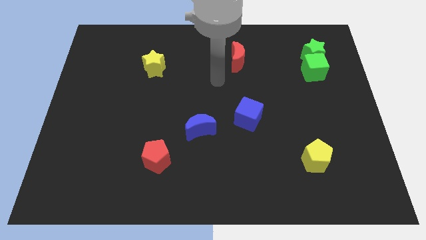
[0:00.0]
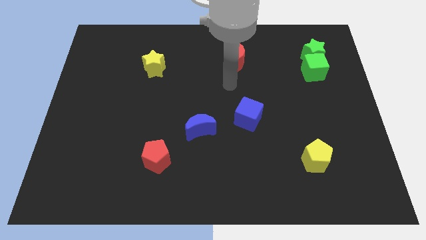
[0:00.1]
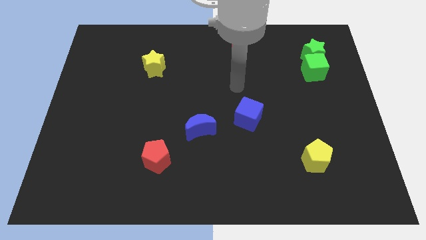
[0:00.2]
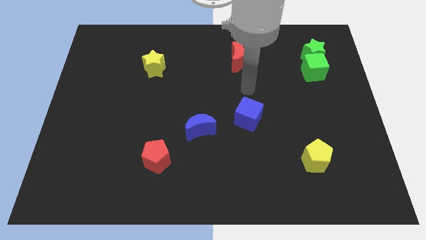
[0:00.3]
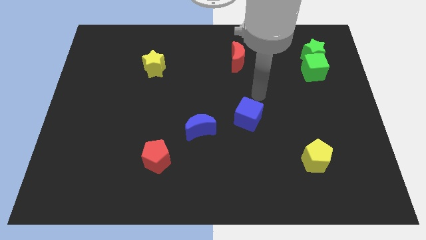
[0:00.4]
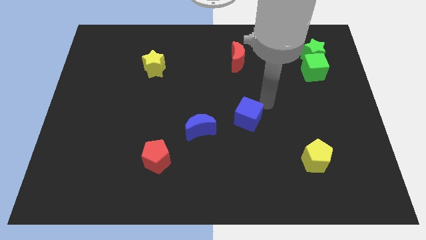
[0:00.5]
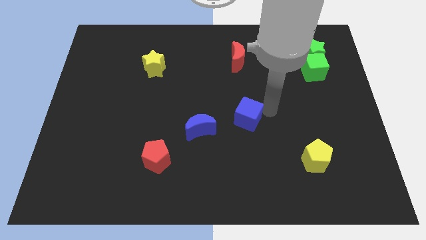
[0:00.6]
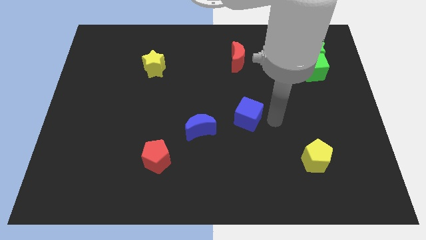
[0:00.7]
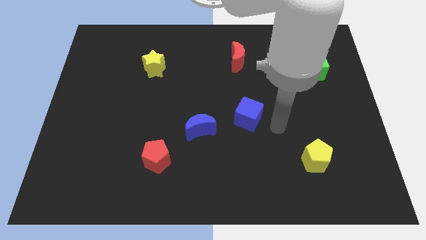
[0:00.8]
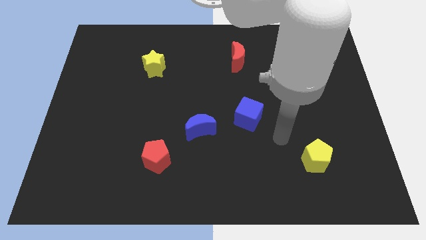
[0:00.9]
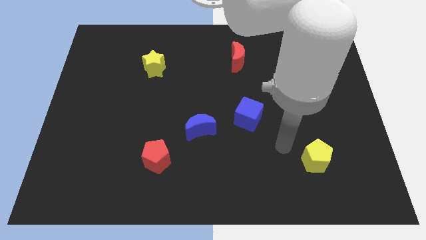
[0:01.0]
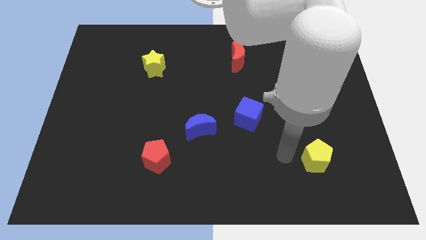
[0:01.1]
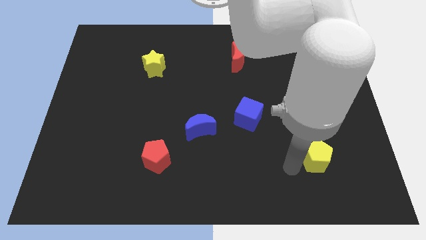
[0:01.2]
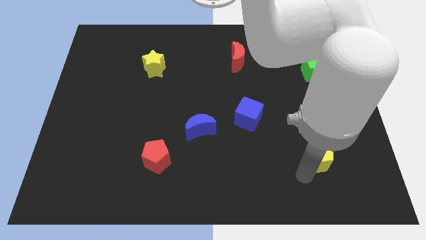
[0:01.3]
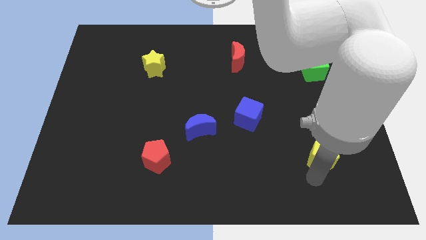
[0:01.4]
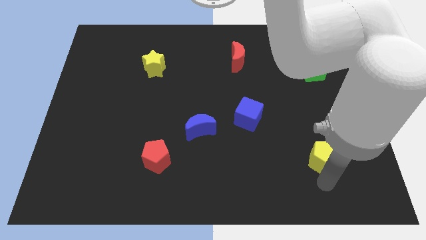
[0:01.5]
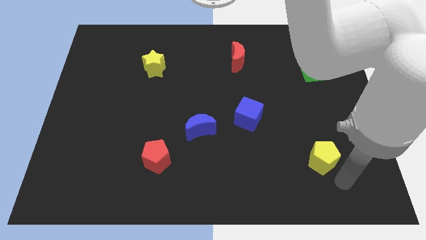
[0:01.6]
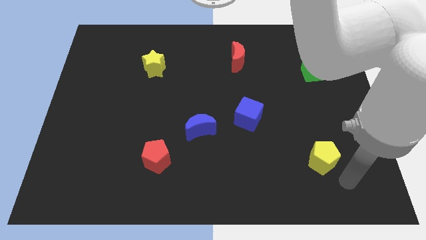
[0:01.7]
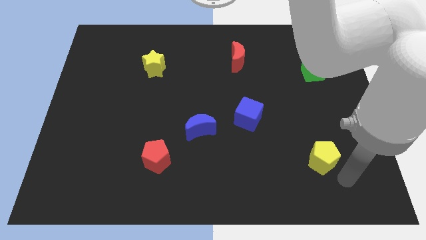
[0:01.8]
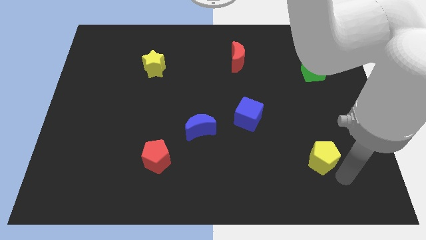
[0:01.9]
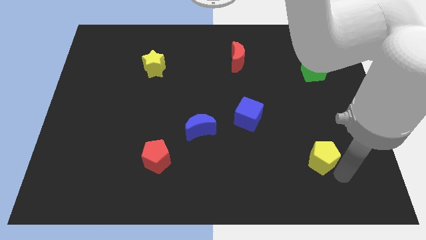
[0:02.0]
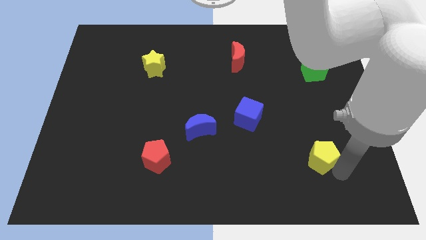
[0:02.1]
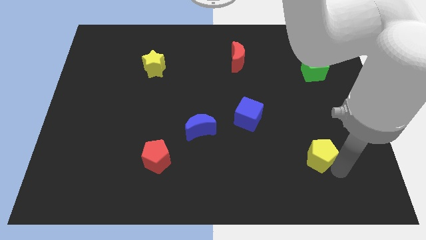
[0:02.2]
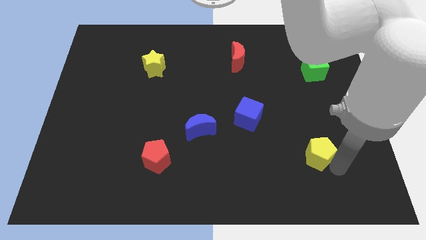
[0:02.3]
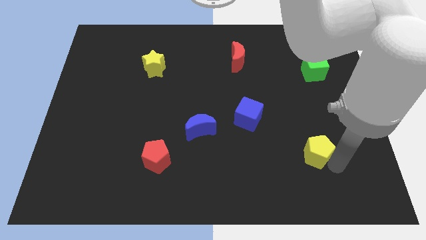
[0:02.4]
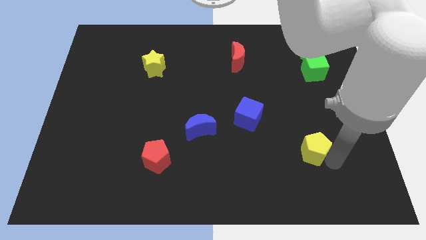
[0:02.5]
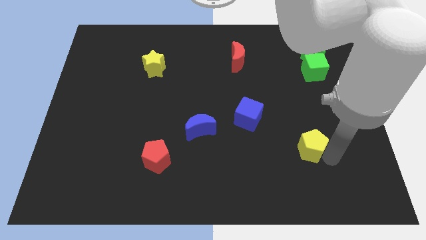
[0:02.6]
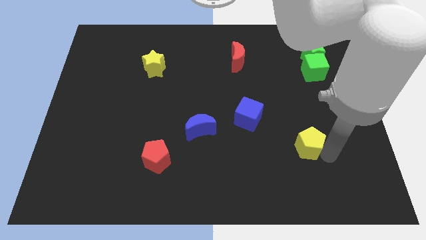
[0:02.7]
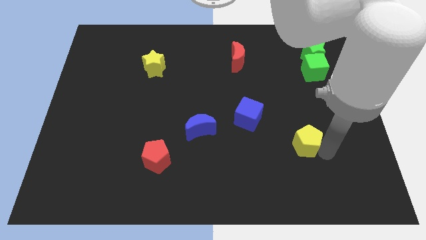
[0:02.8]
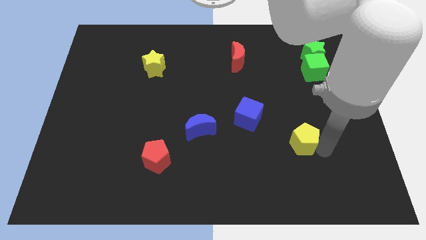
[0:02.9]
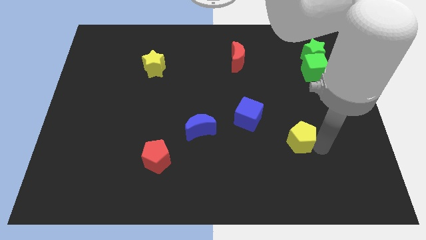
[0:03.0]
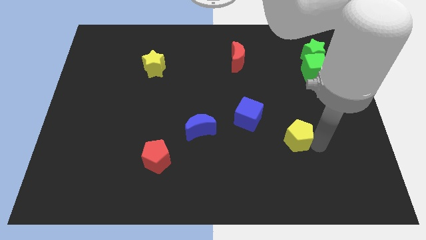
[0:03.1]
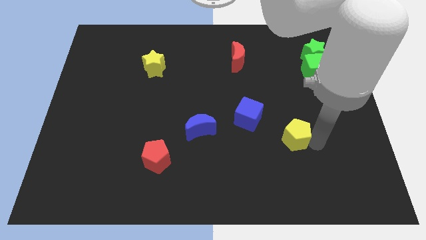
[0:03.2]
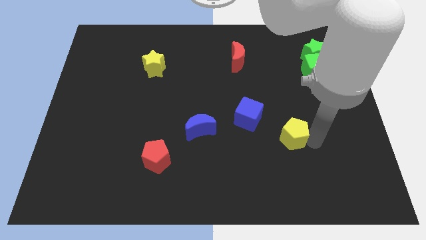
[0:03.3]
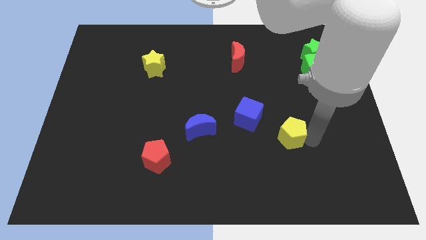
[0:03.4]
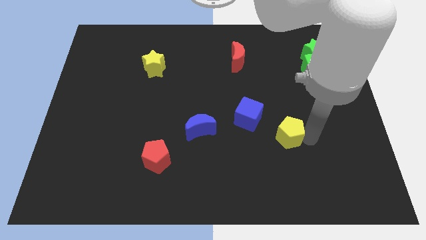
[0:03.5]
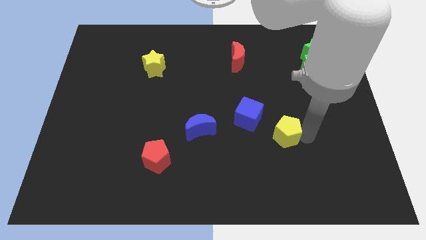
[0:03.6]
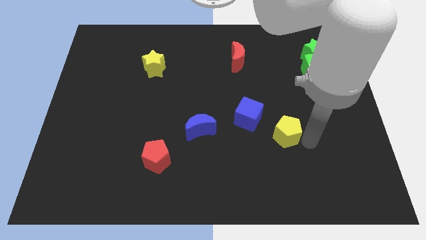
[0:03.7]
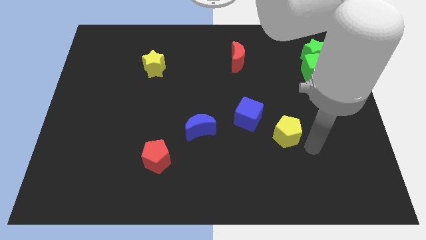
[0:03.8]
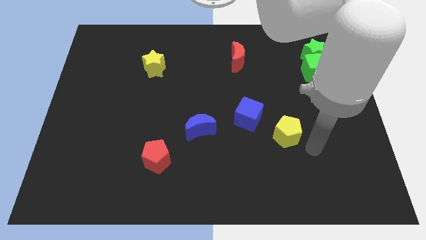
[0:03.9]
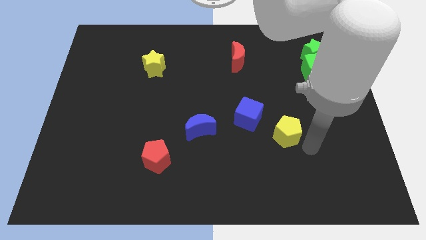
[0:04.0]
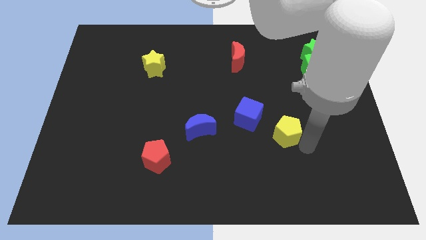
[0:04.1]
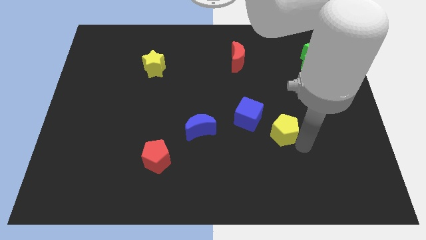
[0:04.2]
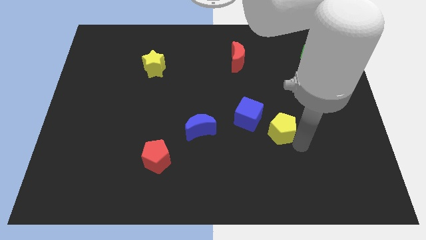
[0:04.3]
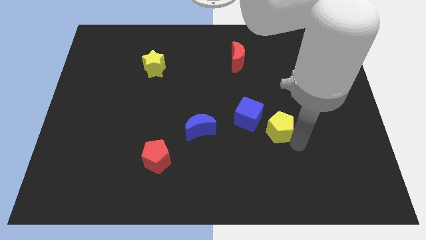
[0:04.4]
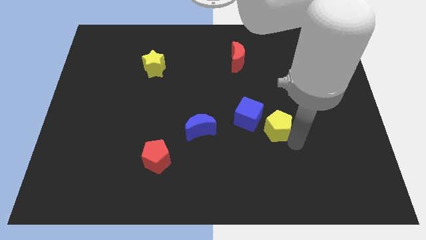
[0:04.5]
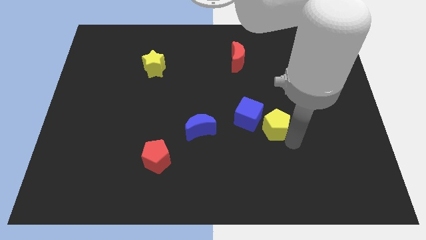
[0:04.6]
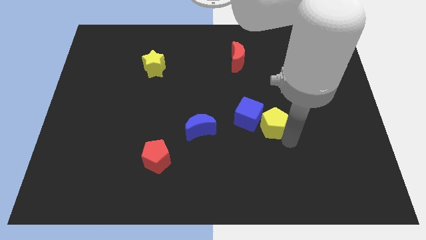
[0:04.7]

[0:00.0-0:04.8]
push the yellow pentagon to the blue cube

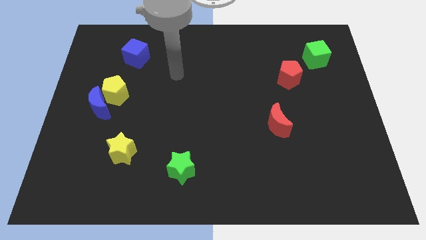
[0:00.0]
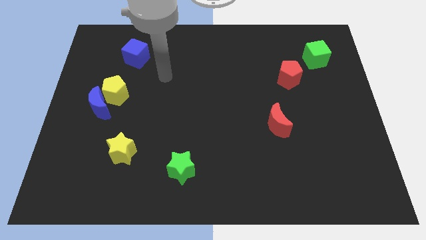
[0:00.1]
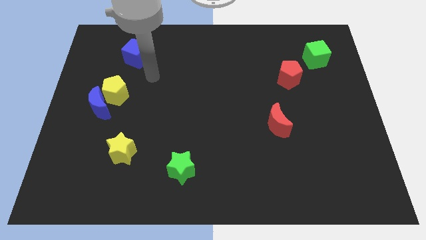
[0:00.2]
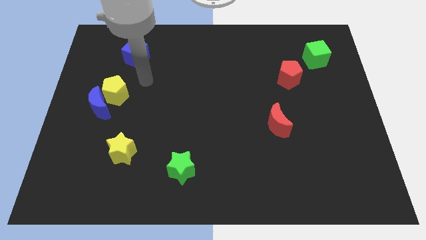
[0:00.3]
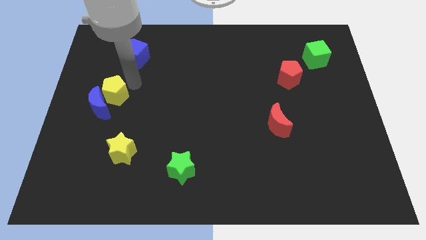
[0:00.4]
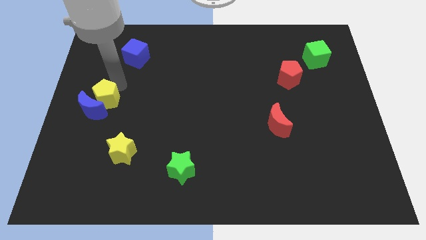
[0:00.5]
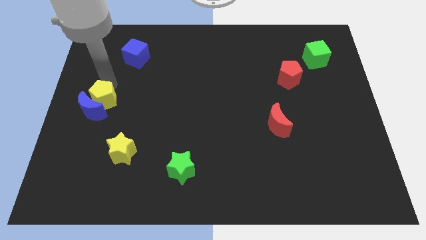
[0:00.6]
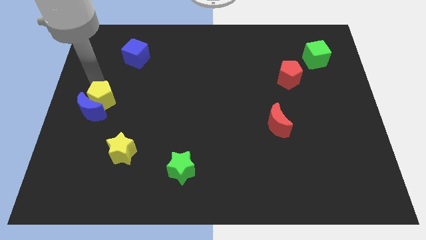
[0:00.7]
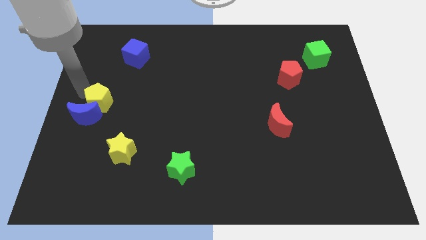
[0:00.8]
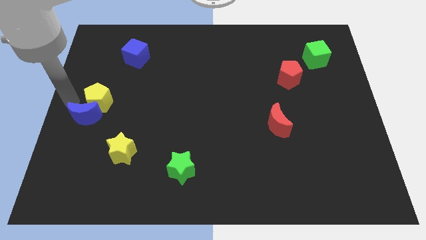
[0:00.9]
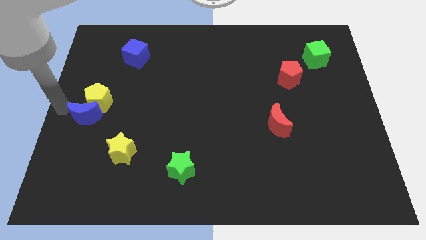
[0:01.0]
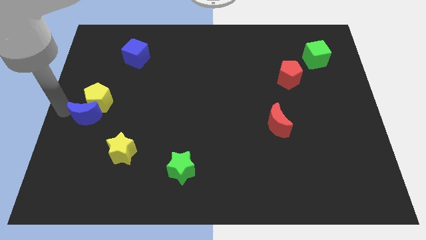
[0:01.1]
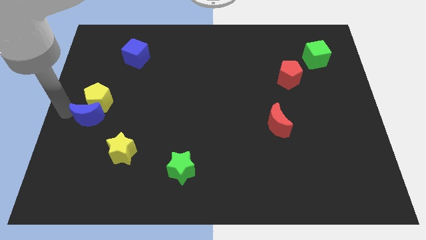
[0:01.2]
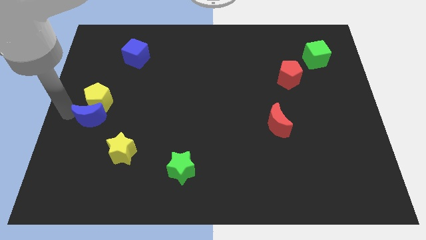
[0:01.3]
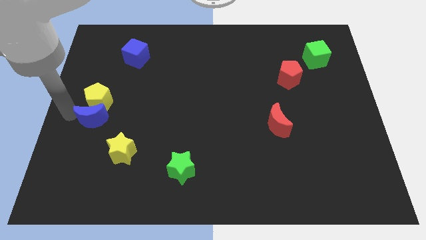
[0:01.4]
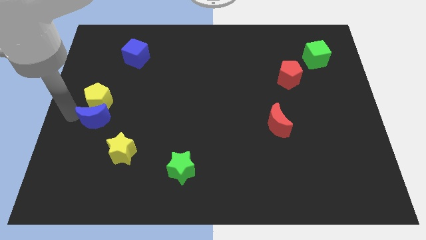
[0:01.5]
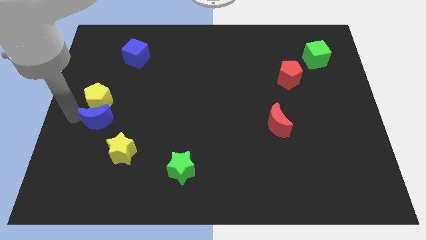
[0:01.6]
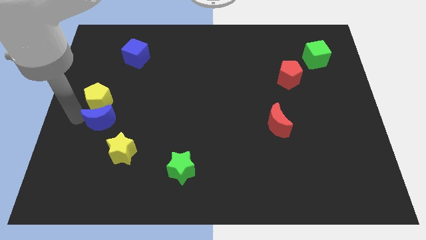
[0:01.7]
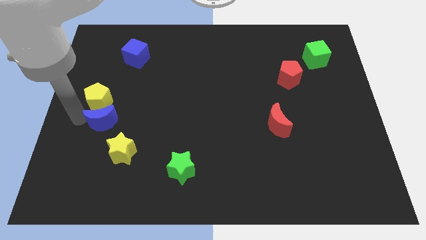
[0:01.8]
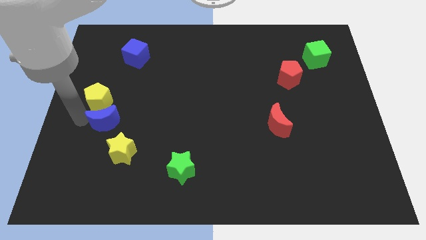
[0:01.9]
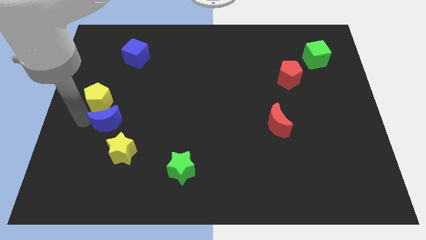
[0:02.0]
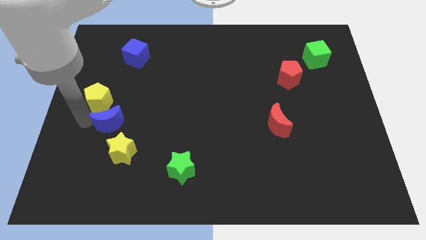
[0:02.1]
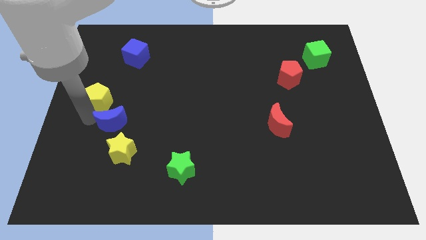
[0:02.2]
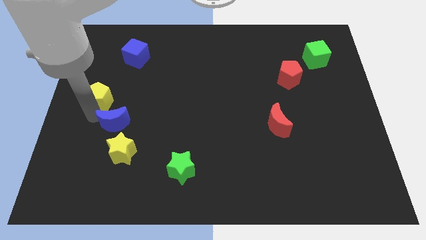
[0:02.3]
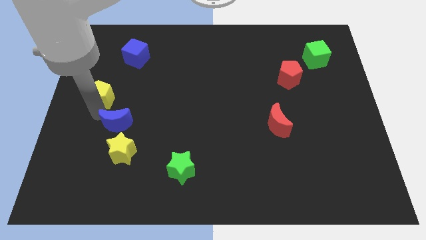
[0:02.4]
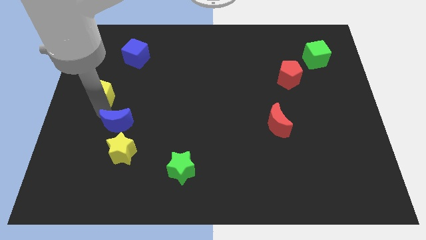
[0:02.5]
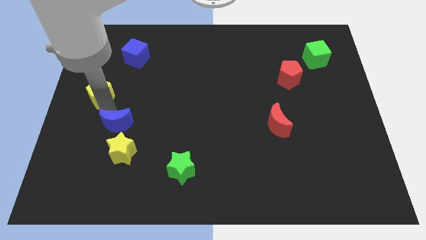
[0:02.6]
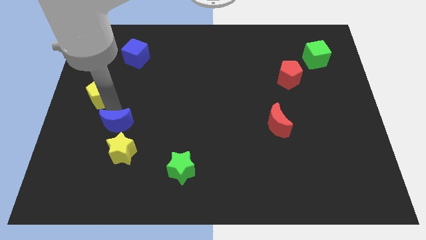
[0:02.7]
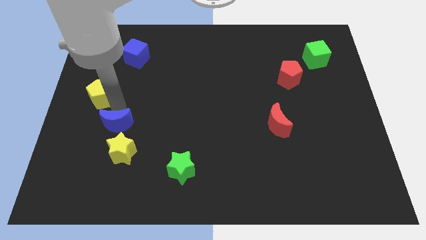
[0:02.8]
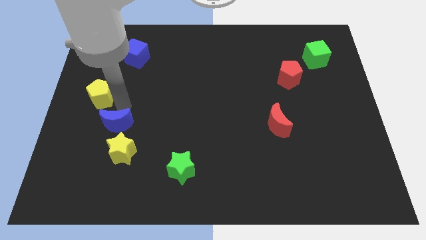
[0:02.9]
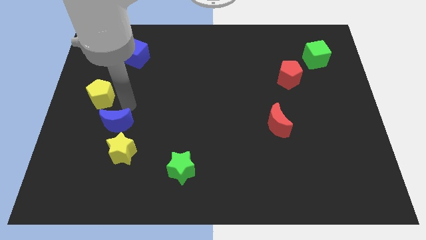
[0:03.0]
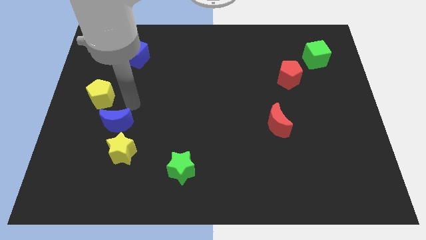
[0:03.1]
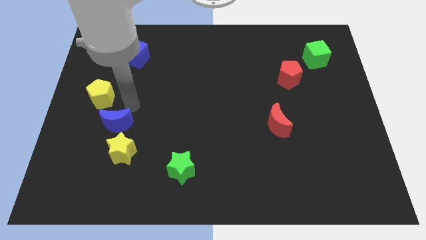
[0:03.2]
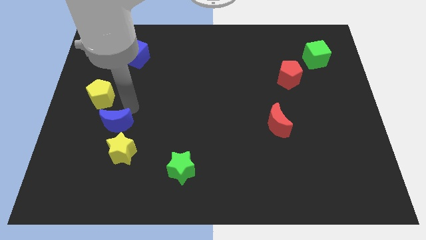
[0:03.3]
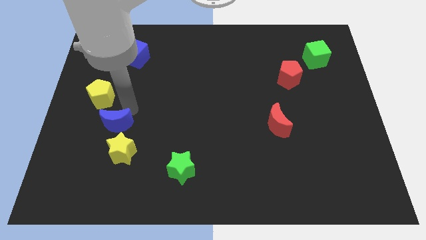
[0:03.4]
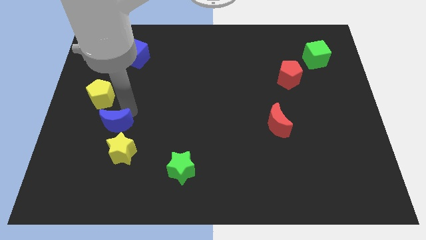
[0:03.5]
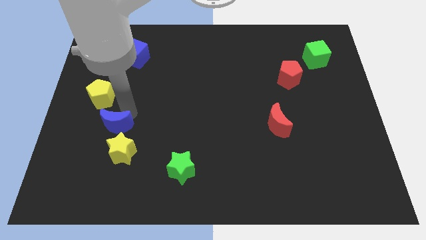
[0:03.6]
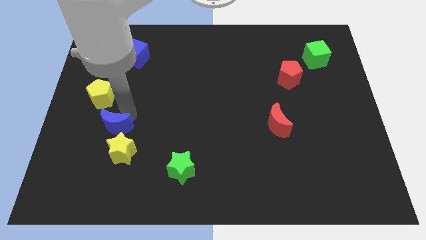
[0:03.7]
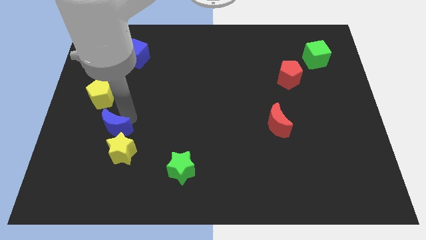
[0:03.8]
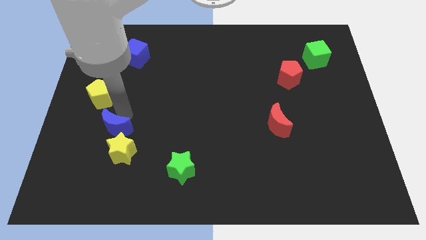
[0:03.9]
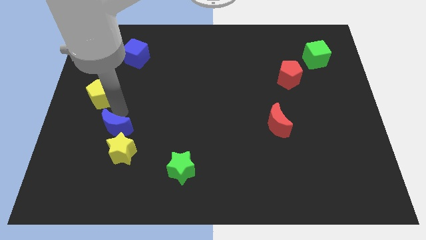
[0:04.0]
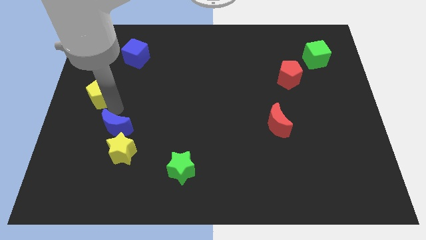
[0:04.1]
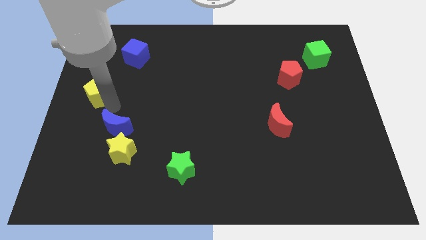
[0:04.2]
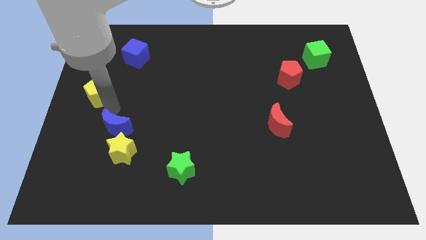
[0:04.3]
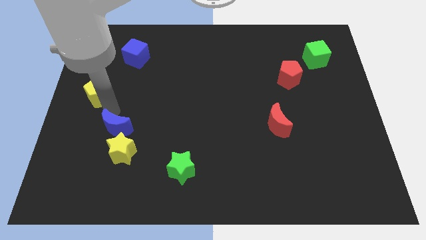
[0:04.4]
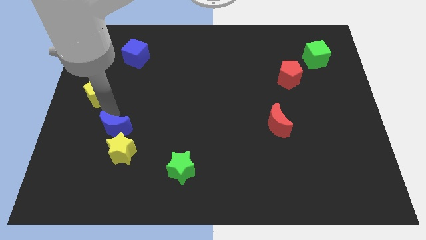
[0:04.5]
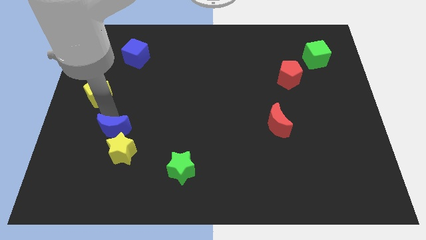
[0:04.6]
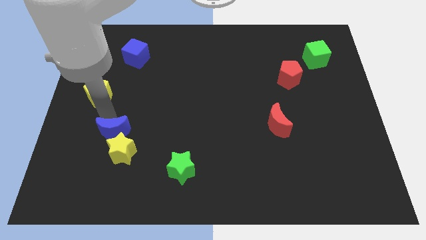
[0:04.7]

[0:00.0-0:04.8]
push the blue moon towards the yellow star
